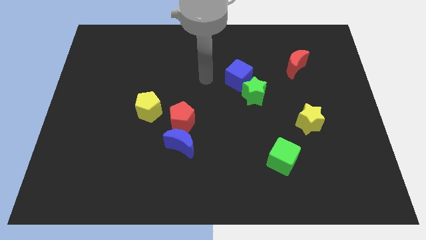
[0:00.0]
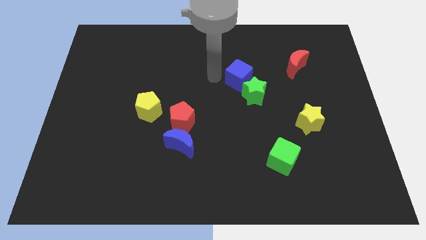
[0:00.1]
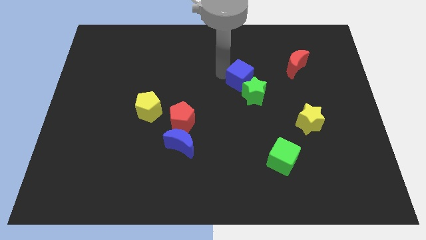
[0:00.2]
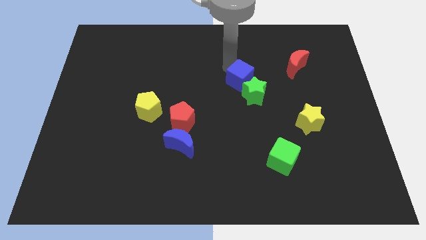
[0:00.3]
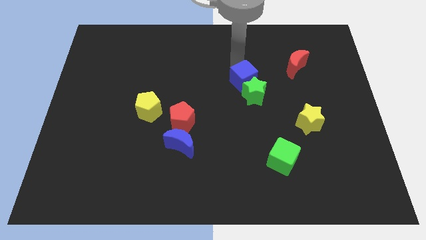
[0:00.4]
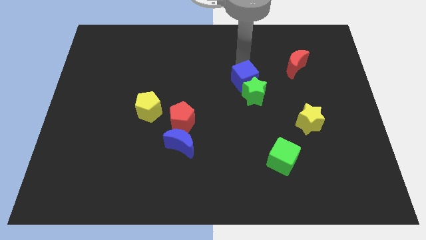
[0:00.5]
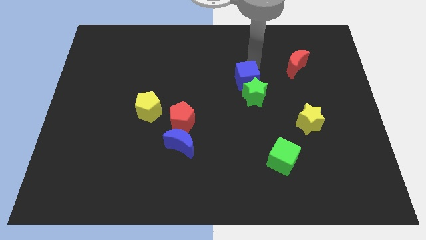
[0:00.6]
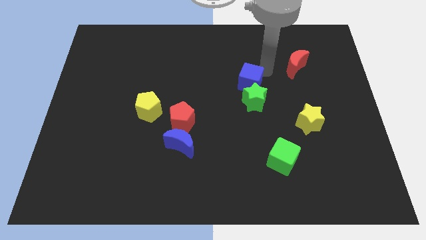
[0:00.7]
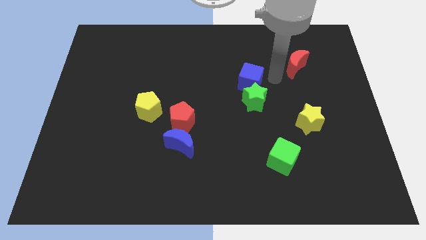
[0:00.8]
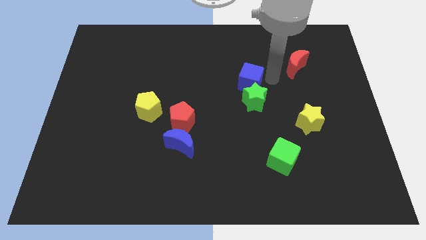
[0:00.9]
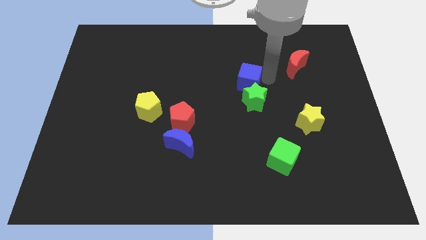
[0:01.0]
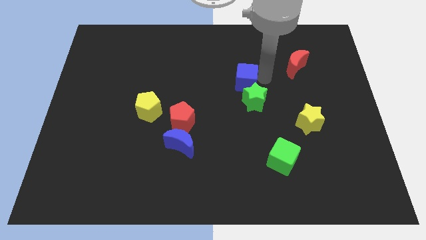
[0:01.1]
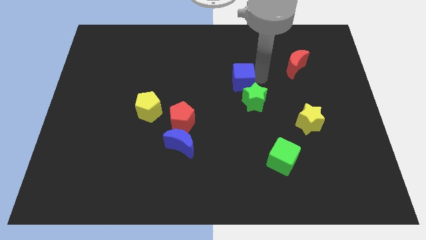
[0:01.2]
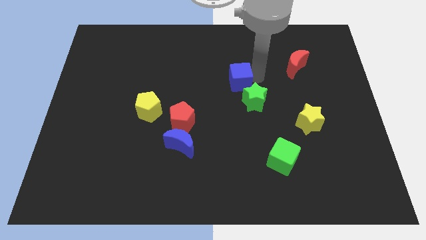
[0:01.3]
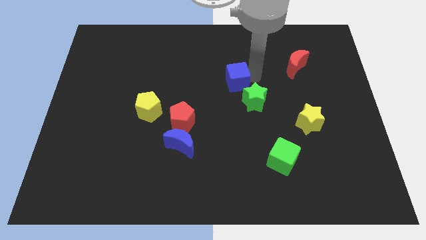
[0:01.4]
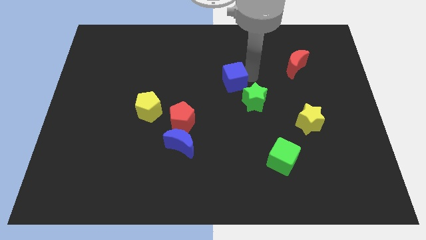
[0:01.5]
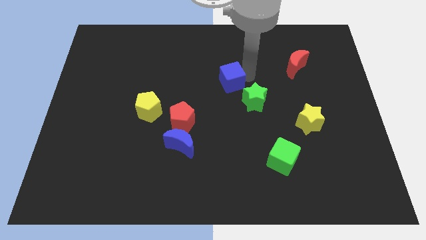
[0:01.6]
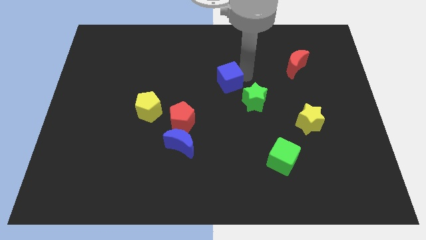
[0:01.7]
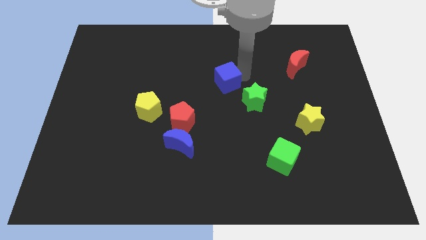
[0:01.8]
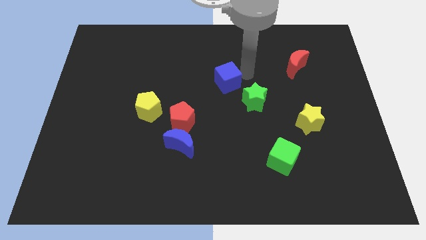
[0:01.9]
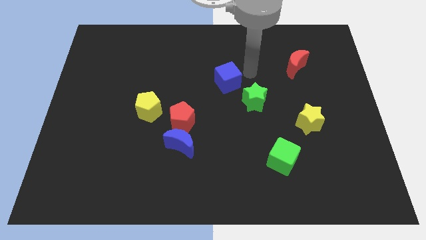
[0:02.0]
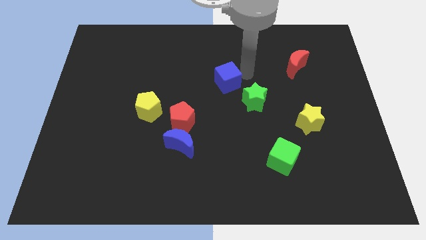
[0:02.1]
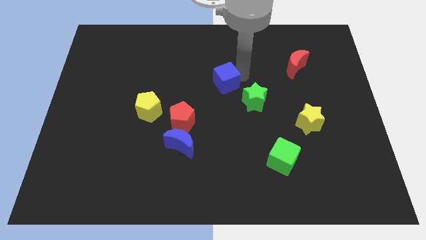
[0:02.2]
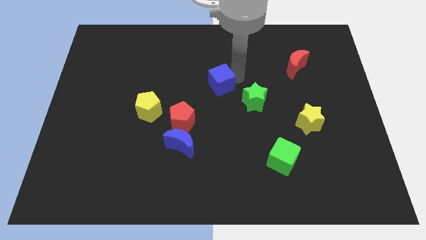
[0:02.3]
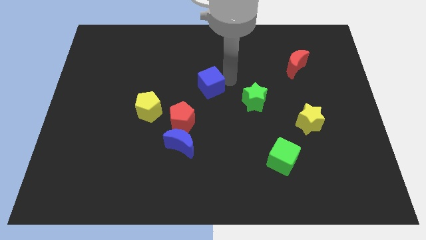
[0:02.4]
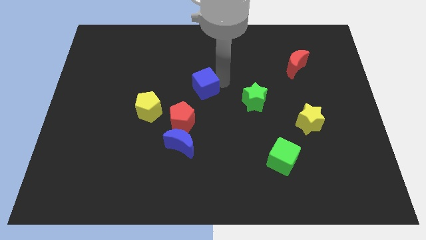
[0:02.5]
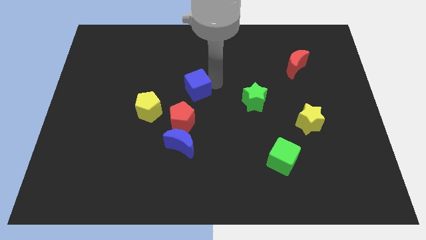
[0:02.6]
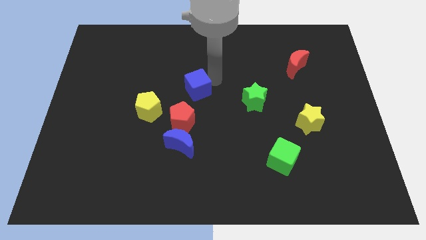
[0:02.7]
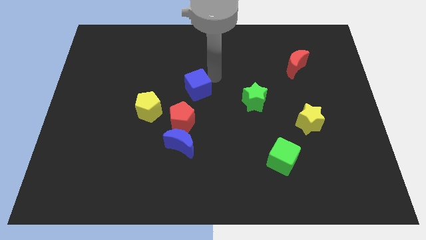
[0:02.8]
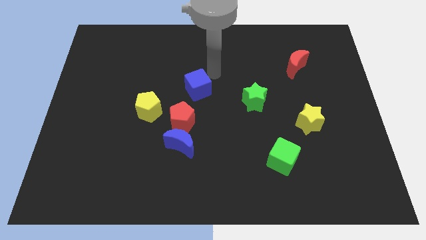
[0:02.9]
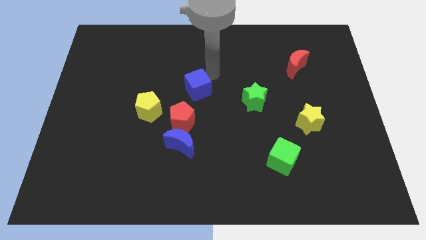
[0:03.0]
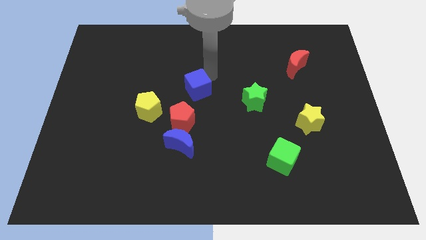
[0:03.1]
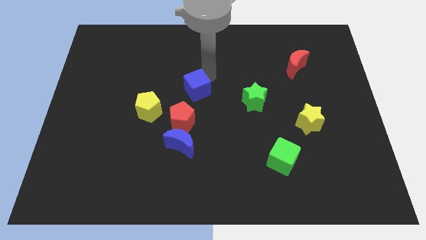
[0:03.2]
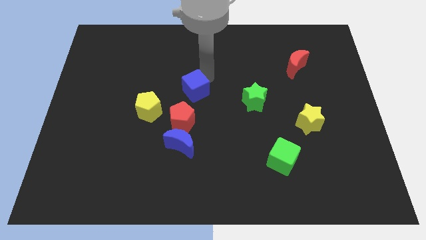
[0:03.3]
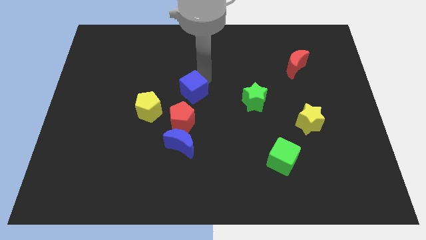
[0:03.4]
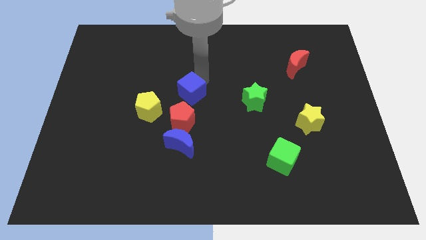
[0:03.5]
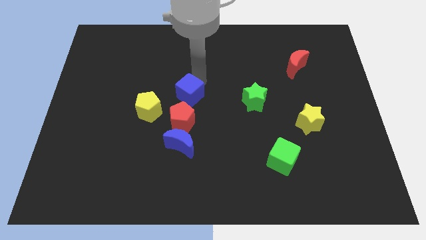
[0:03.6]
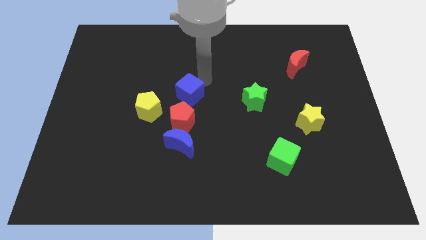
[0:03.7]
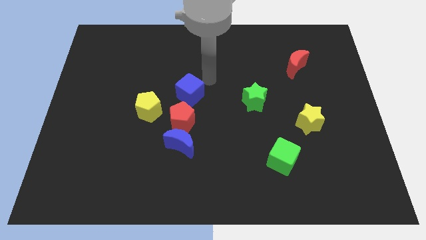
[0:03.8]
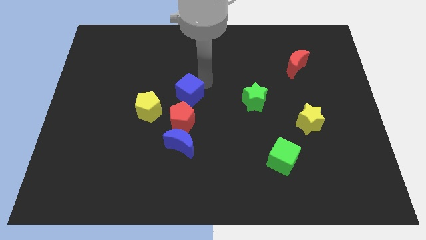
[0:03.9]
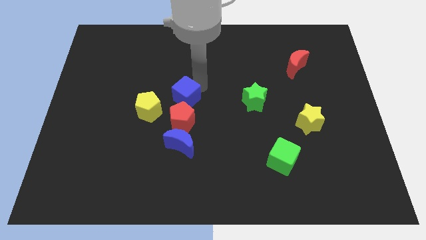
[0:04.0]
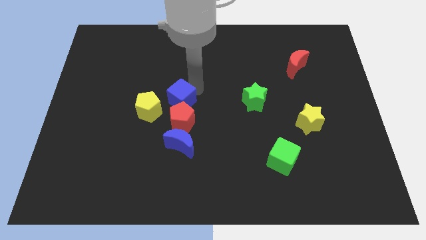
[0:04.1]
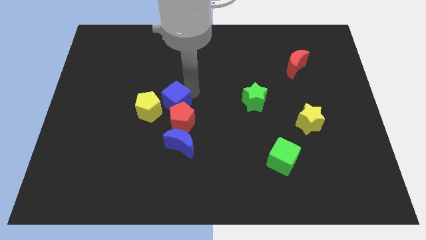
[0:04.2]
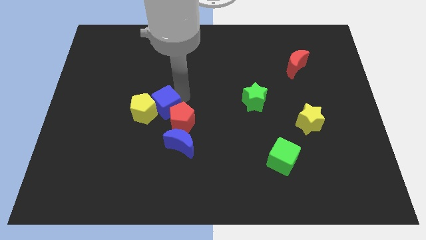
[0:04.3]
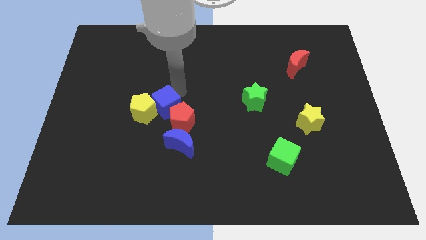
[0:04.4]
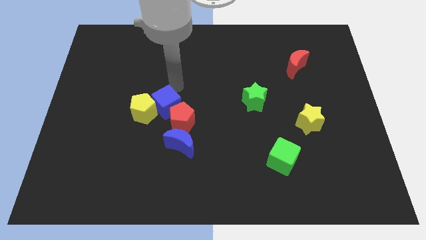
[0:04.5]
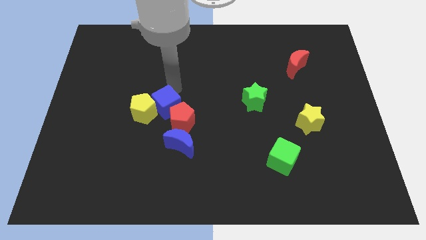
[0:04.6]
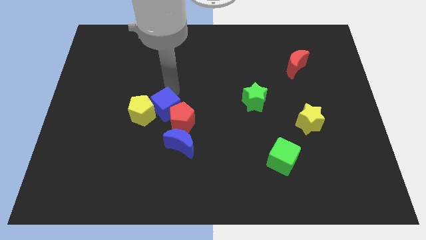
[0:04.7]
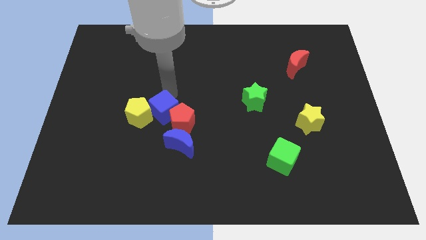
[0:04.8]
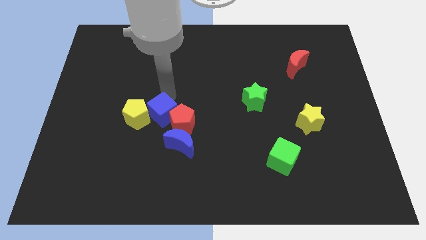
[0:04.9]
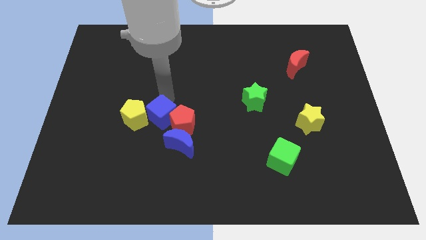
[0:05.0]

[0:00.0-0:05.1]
push the blue cube downwards and to the left

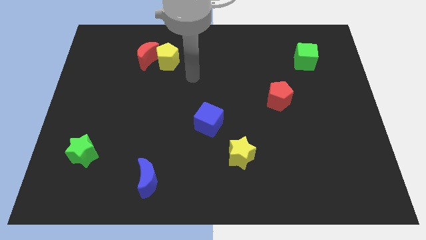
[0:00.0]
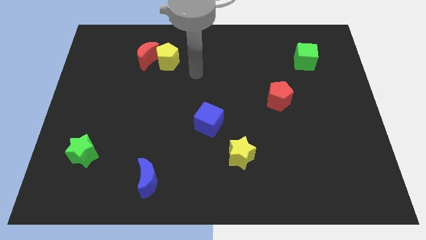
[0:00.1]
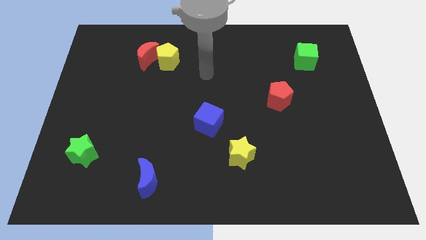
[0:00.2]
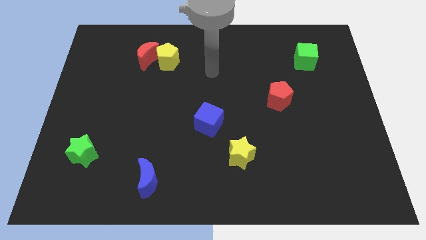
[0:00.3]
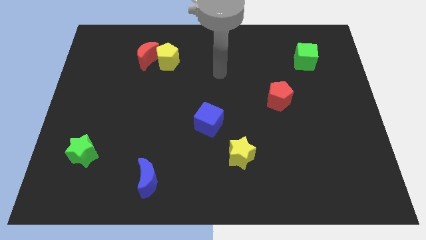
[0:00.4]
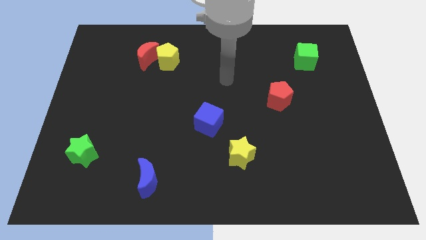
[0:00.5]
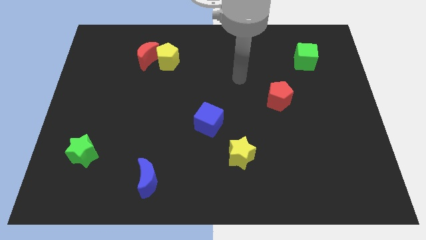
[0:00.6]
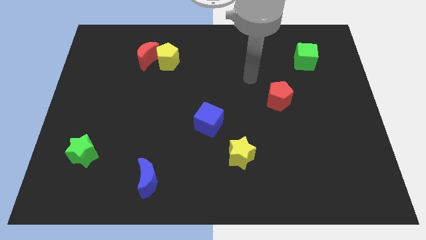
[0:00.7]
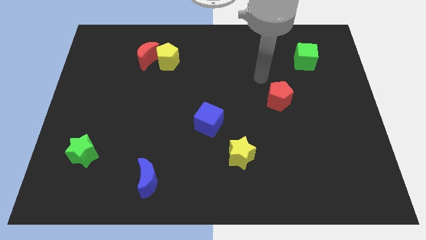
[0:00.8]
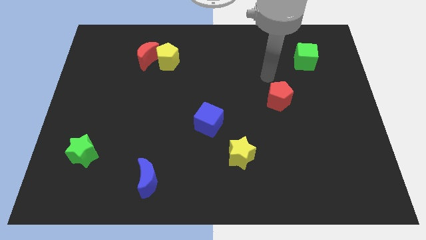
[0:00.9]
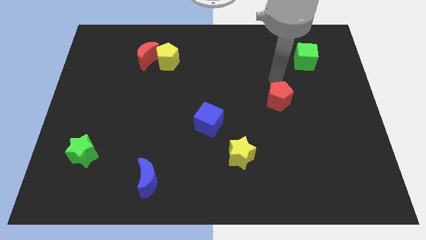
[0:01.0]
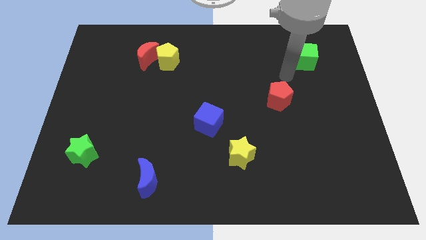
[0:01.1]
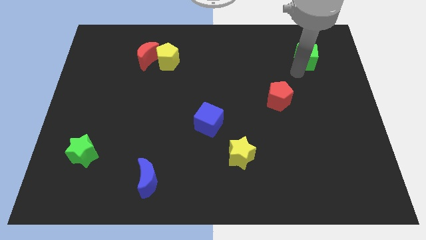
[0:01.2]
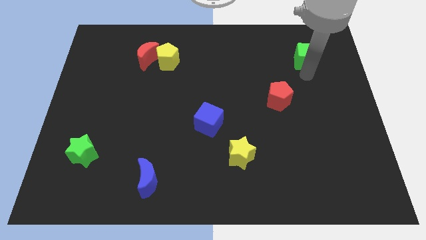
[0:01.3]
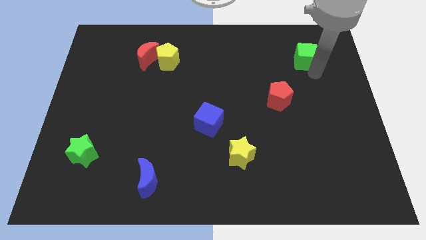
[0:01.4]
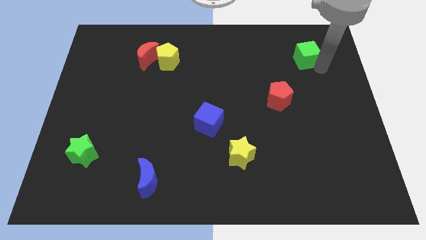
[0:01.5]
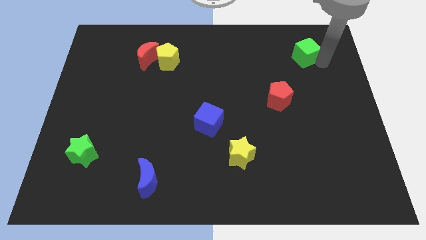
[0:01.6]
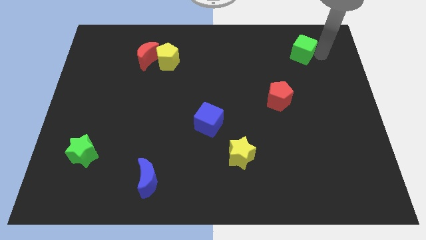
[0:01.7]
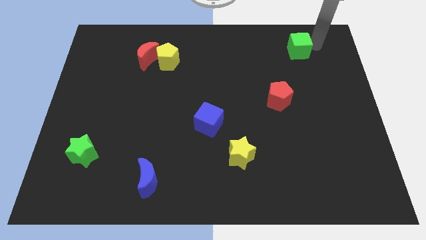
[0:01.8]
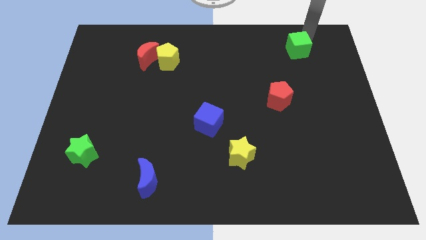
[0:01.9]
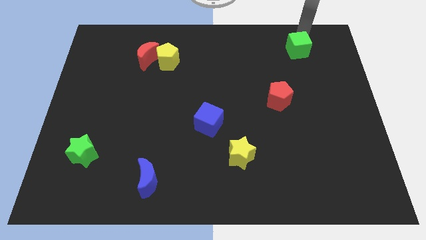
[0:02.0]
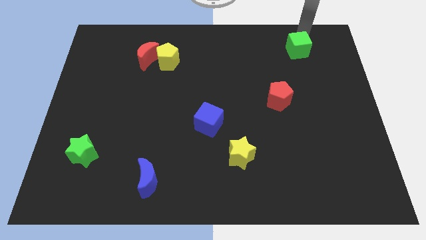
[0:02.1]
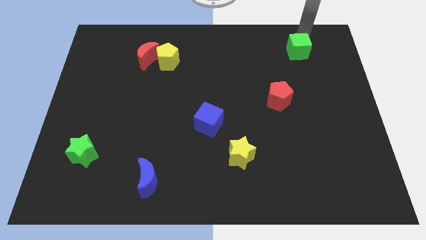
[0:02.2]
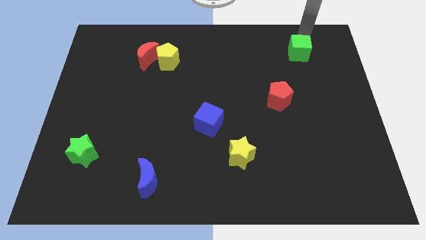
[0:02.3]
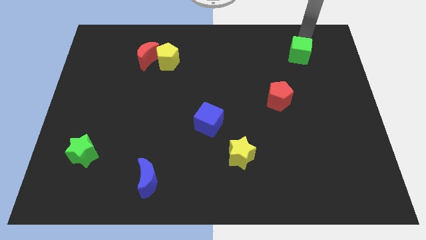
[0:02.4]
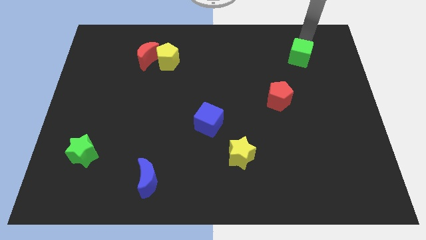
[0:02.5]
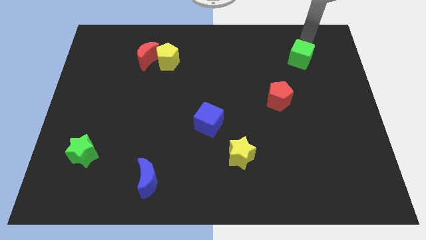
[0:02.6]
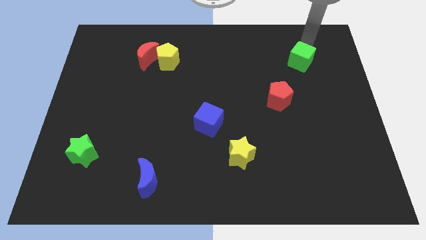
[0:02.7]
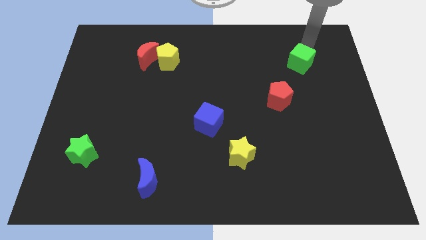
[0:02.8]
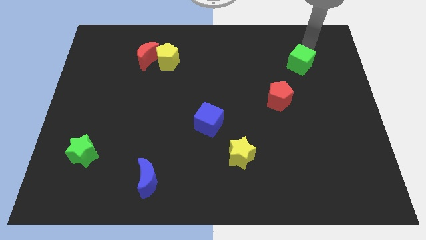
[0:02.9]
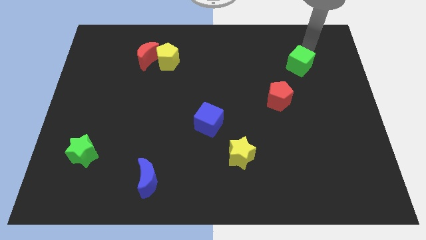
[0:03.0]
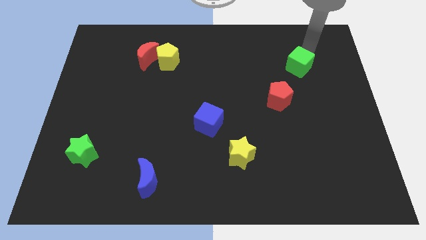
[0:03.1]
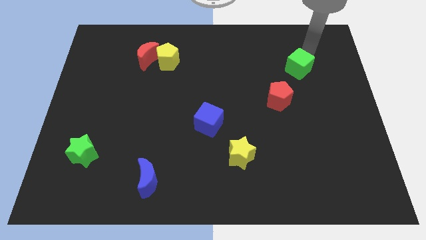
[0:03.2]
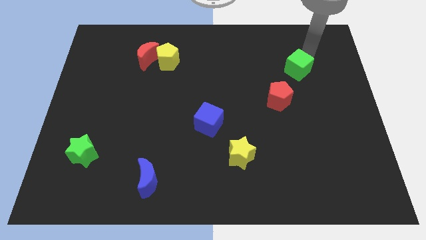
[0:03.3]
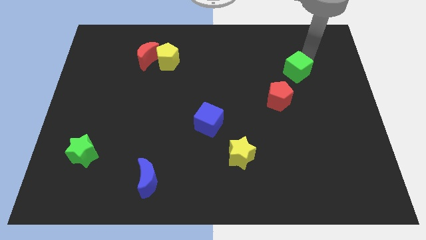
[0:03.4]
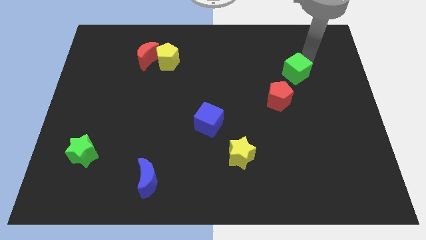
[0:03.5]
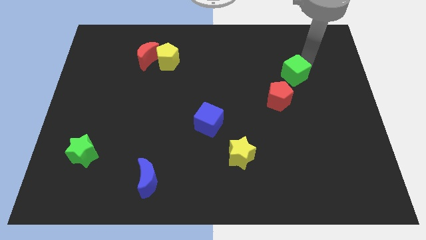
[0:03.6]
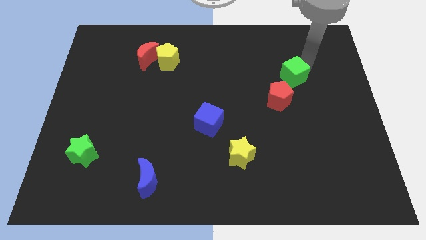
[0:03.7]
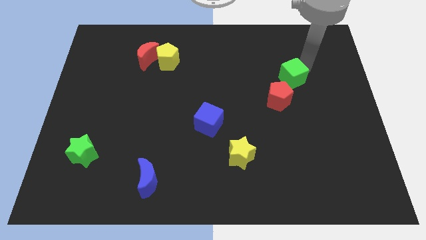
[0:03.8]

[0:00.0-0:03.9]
move the green cube a little down and to the left
